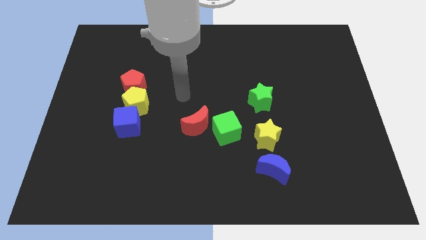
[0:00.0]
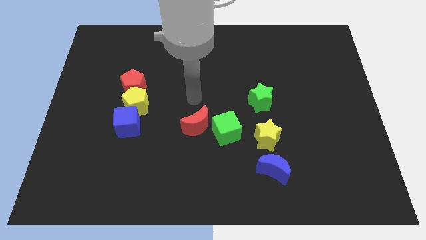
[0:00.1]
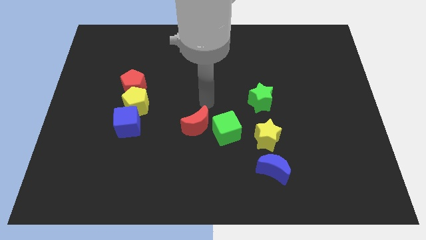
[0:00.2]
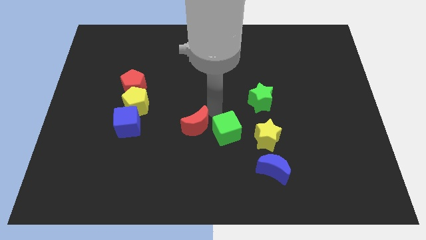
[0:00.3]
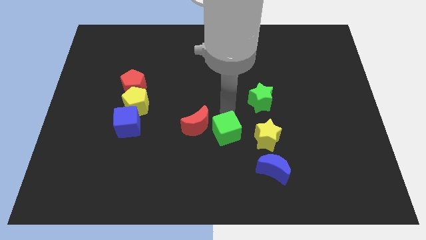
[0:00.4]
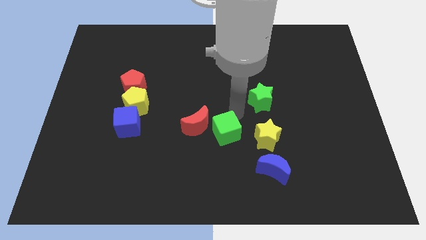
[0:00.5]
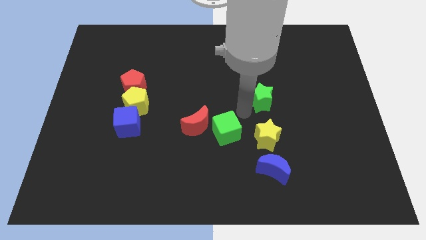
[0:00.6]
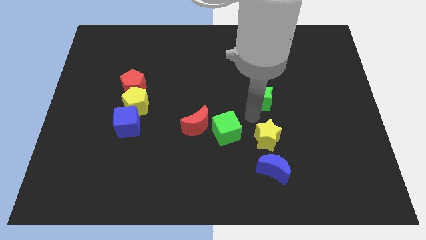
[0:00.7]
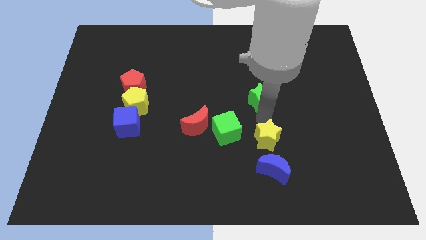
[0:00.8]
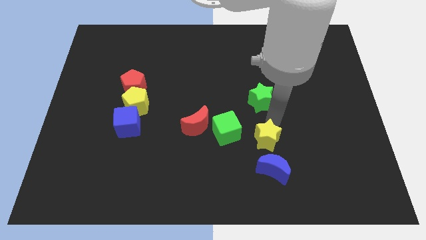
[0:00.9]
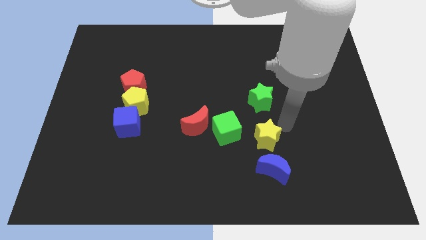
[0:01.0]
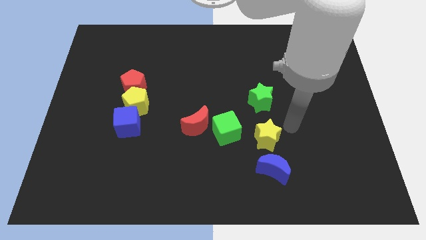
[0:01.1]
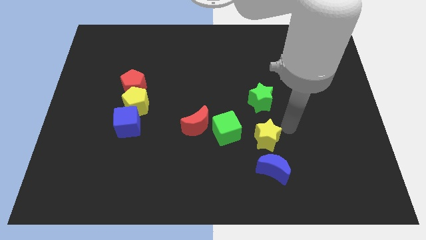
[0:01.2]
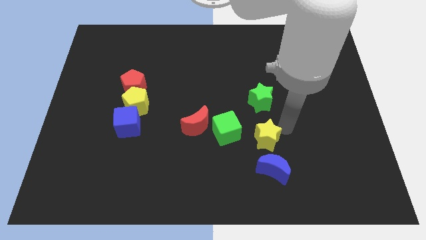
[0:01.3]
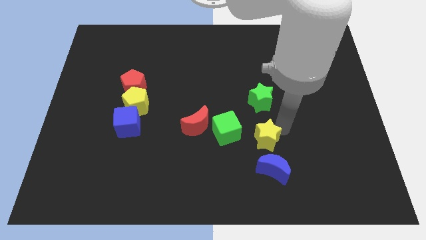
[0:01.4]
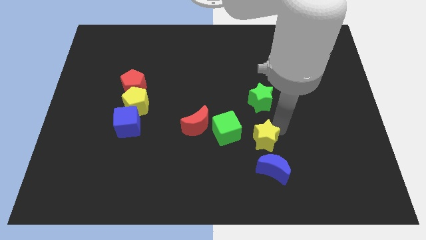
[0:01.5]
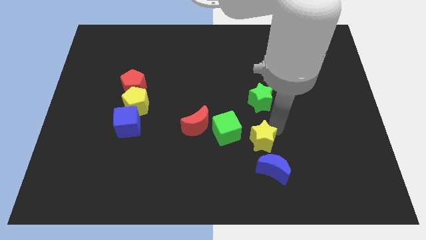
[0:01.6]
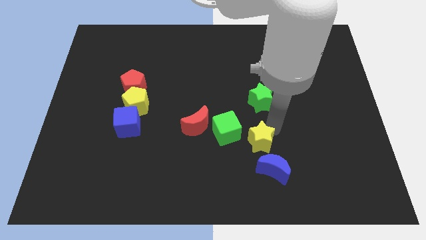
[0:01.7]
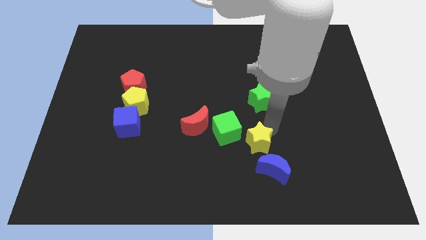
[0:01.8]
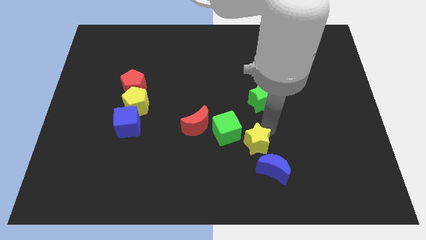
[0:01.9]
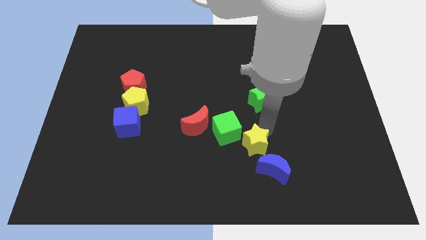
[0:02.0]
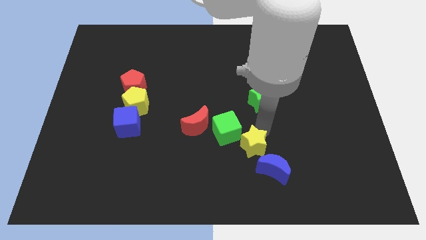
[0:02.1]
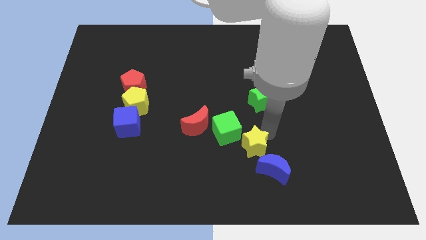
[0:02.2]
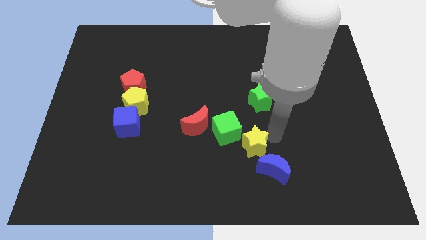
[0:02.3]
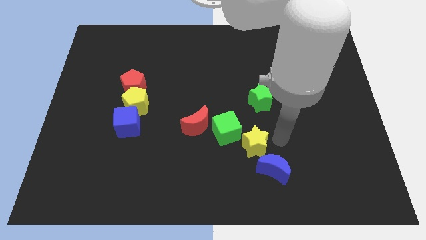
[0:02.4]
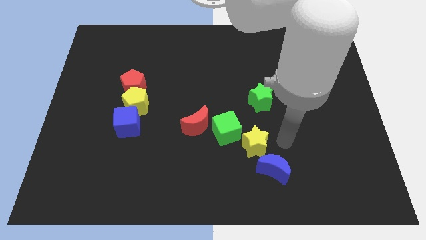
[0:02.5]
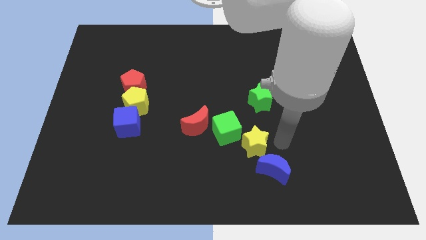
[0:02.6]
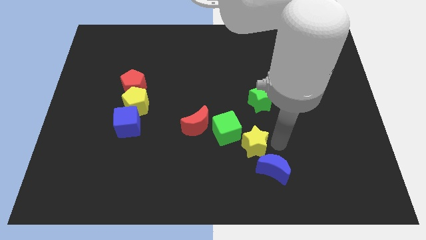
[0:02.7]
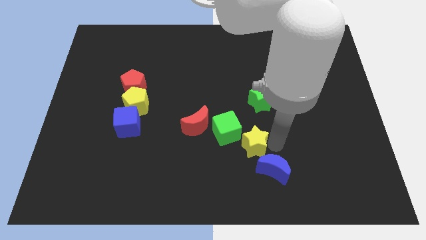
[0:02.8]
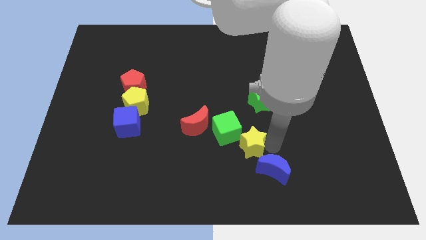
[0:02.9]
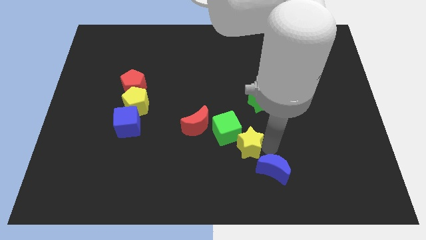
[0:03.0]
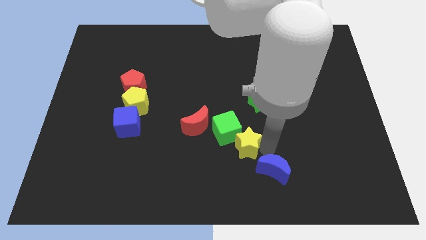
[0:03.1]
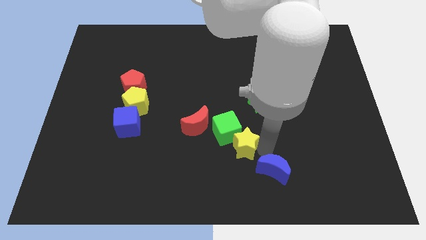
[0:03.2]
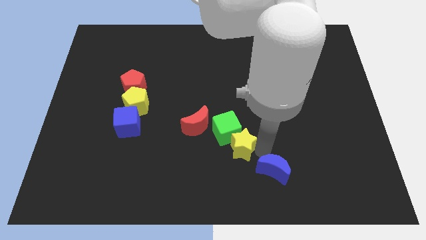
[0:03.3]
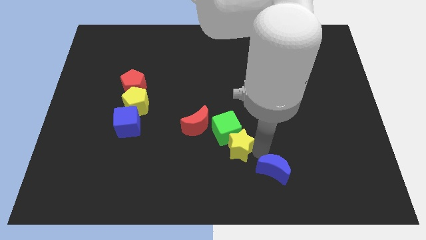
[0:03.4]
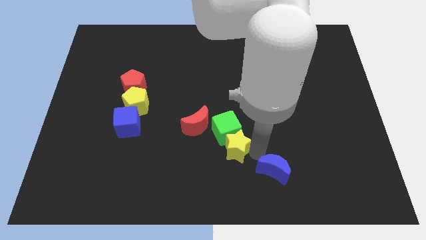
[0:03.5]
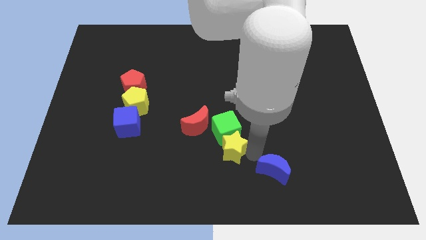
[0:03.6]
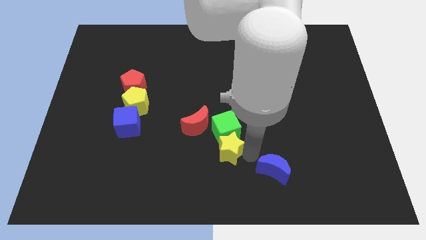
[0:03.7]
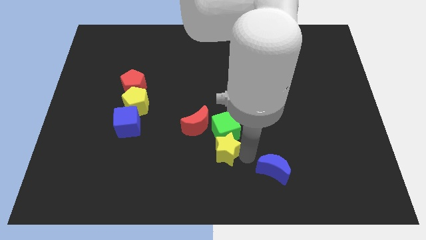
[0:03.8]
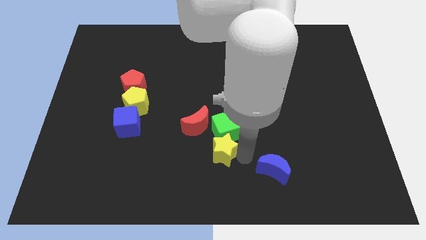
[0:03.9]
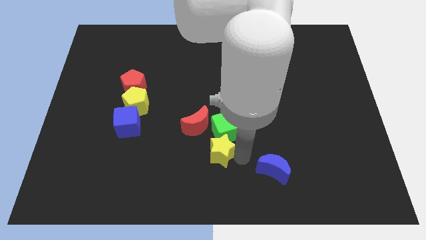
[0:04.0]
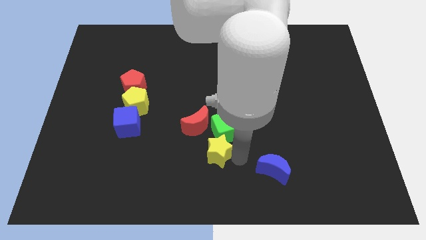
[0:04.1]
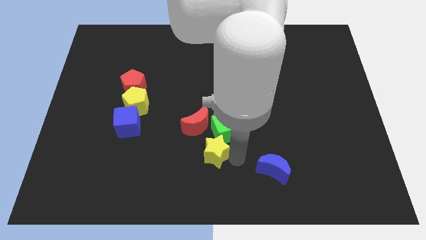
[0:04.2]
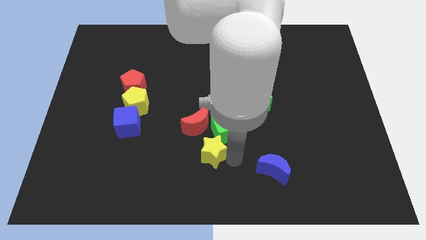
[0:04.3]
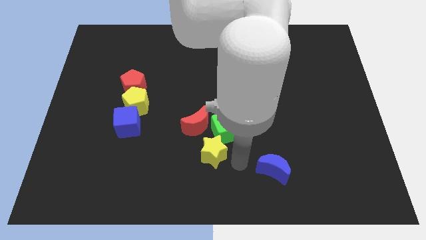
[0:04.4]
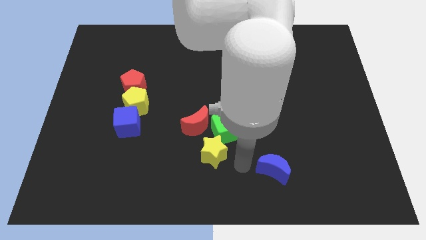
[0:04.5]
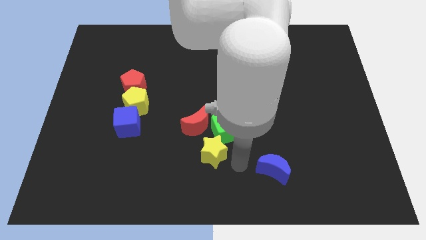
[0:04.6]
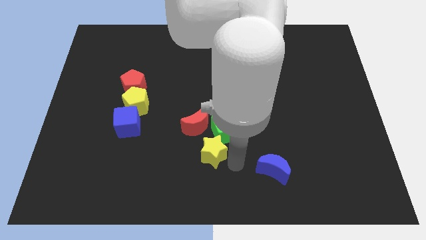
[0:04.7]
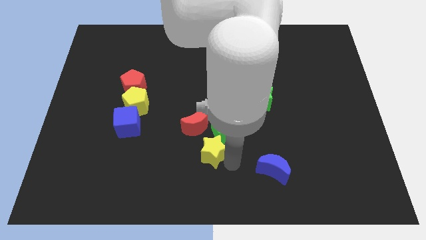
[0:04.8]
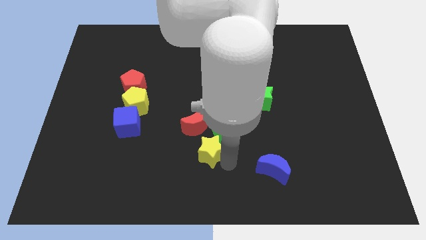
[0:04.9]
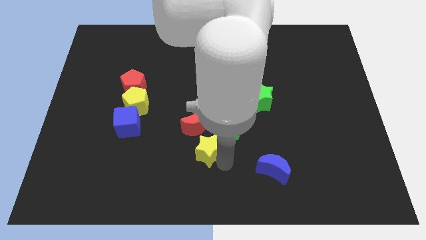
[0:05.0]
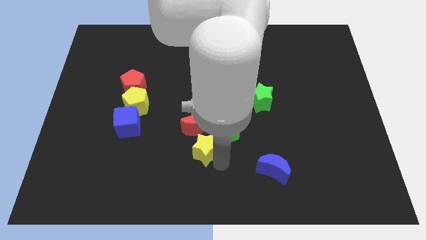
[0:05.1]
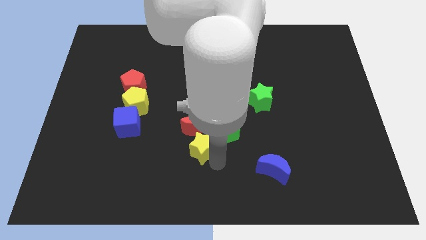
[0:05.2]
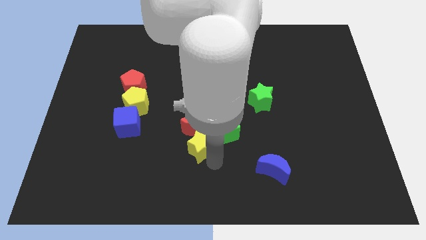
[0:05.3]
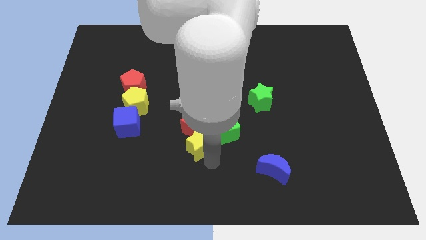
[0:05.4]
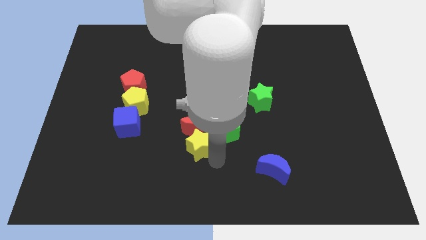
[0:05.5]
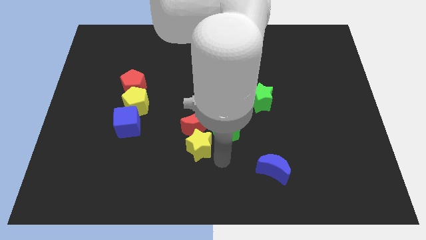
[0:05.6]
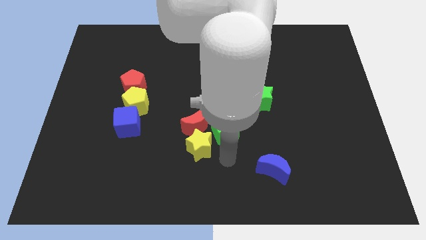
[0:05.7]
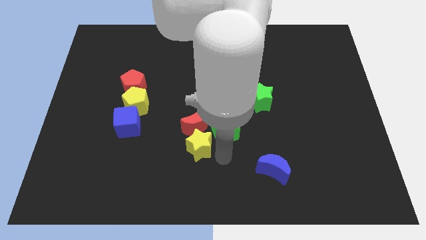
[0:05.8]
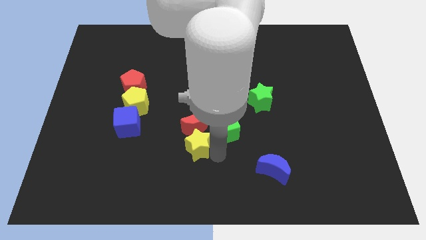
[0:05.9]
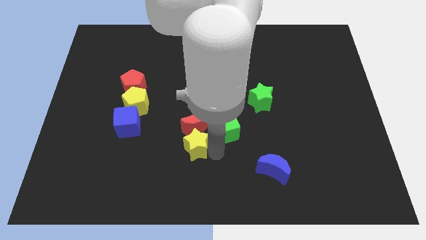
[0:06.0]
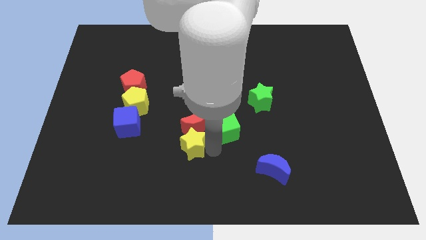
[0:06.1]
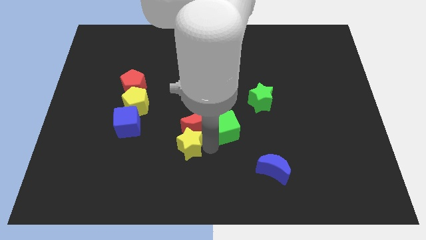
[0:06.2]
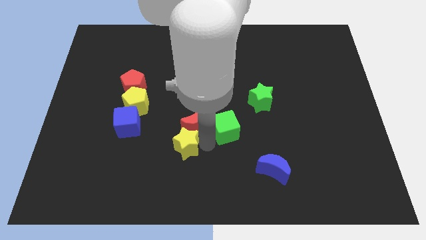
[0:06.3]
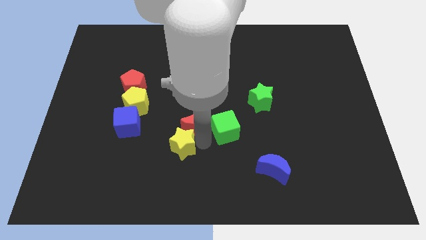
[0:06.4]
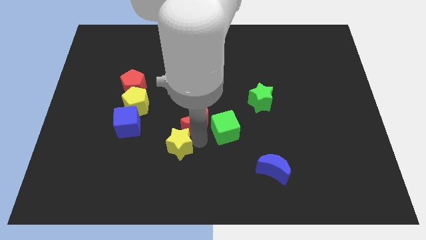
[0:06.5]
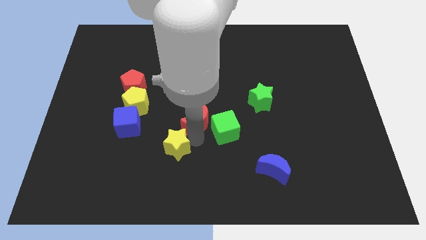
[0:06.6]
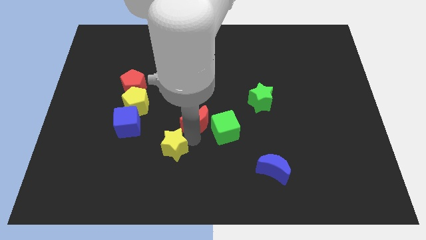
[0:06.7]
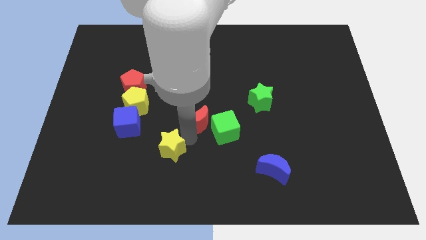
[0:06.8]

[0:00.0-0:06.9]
put the yellow star to the bottom right of the blue cube
